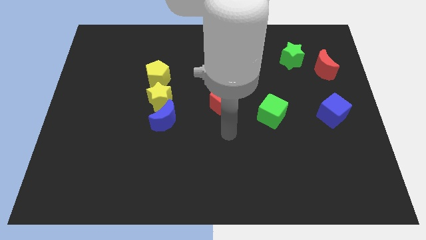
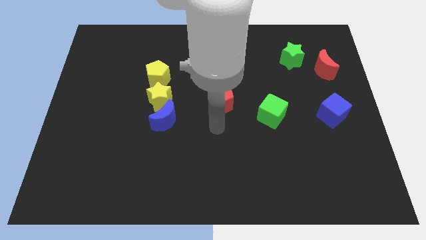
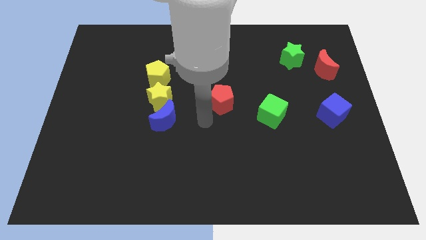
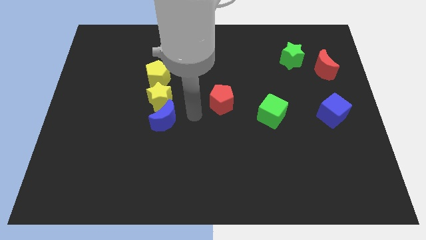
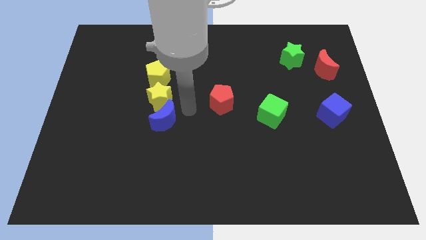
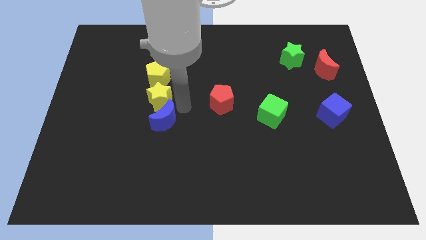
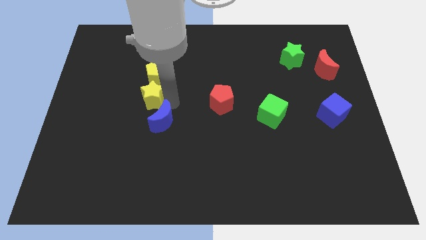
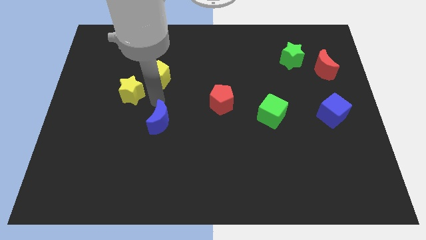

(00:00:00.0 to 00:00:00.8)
pull the blue moon apart from the yellow star

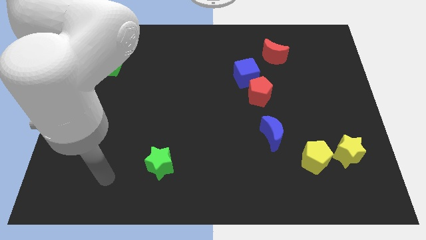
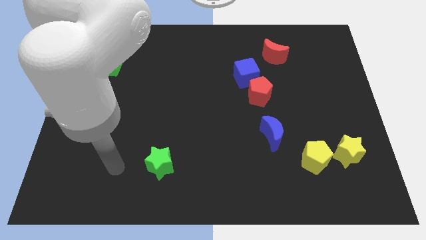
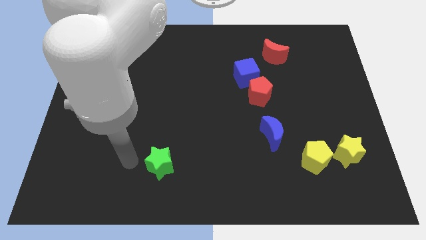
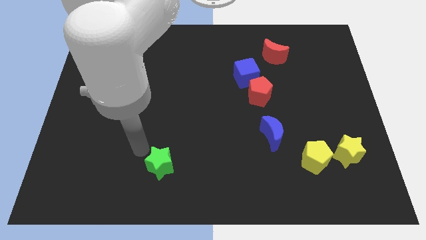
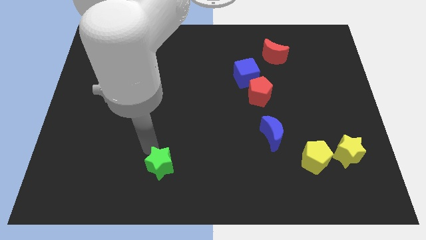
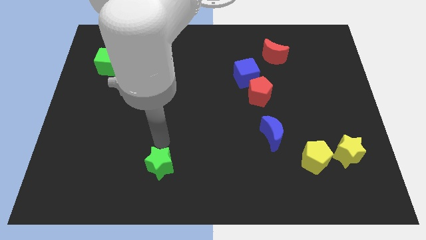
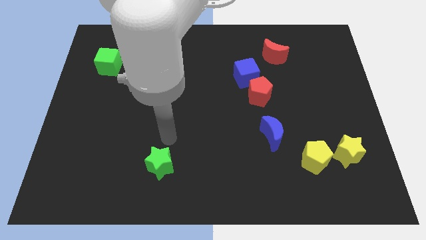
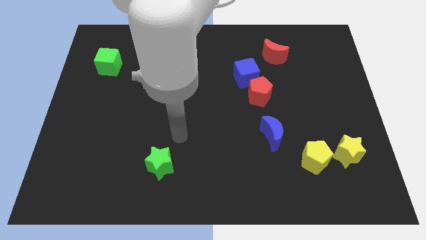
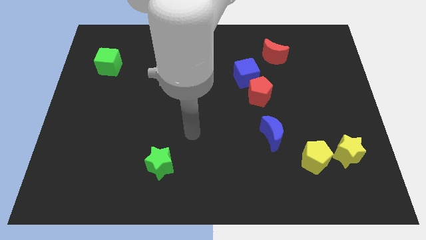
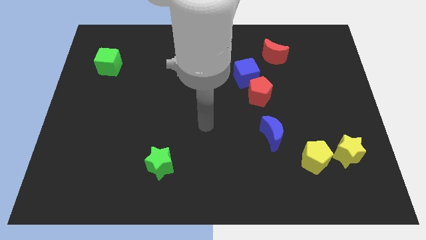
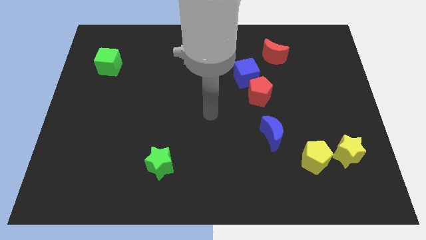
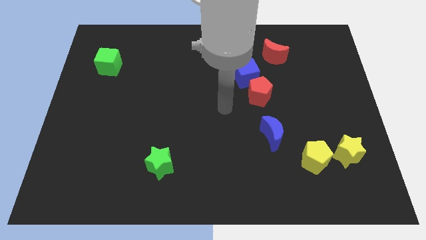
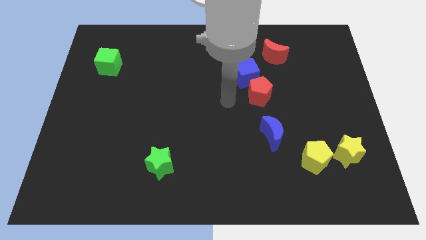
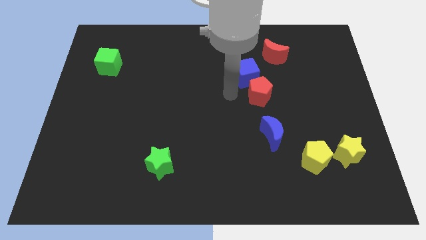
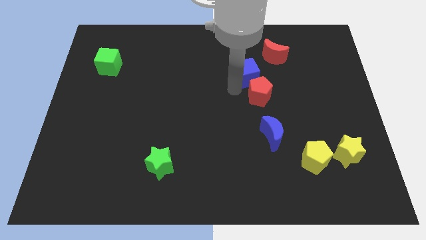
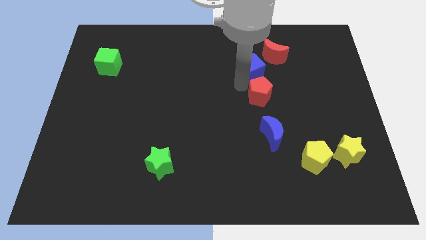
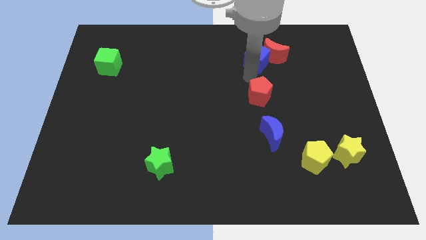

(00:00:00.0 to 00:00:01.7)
separate the red pentagon from the blue cube

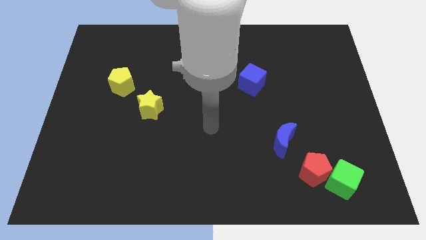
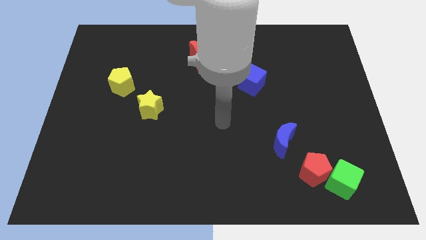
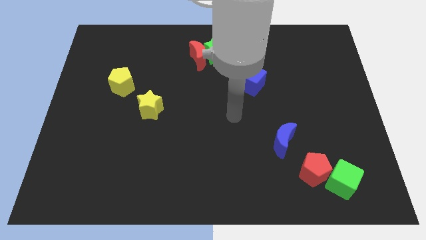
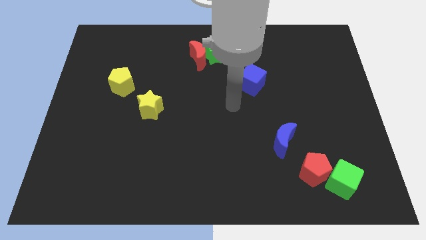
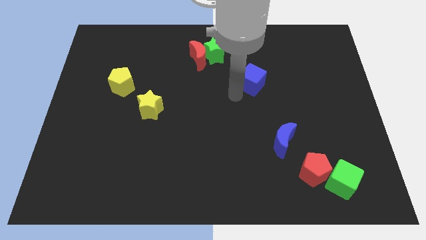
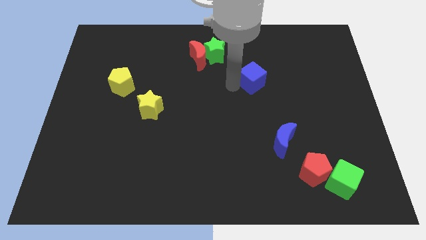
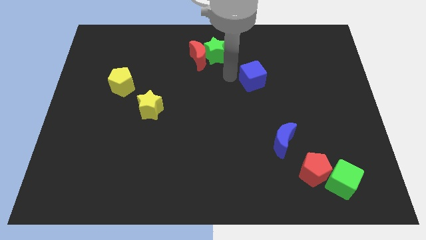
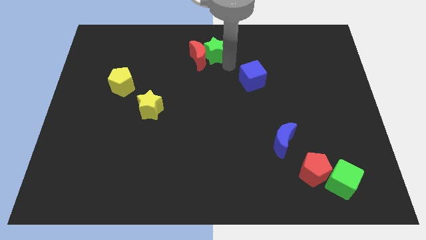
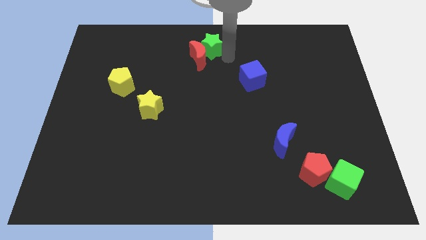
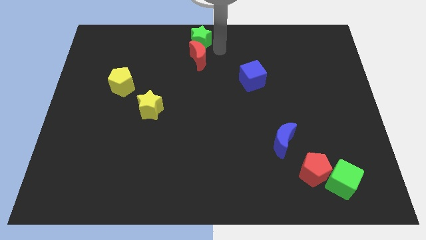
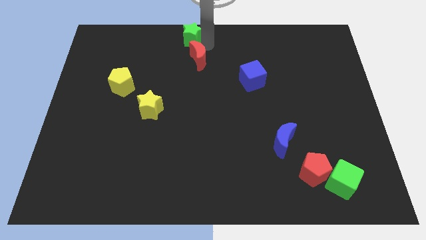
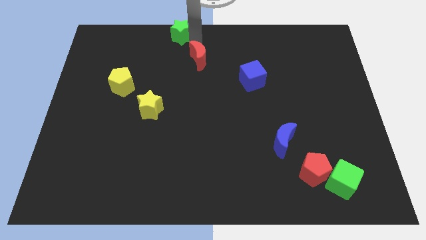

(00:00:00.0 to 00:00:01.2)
separate the red moon from the green star

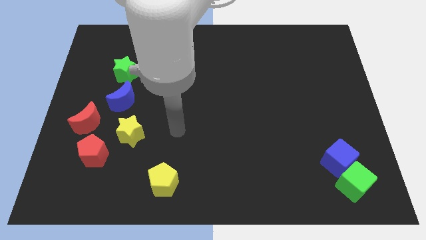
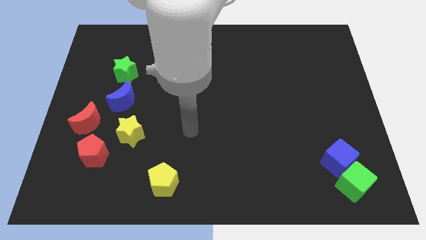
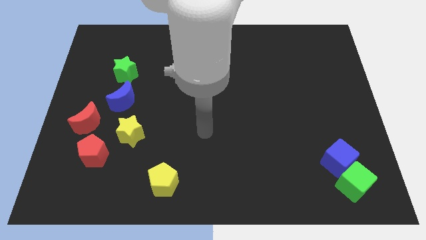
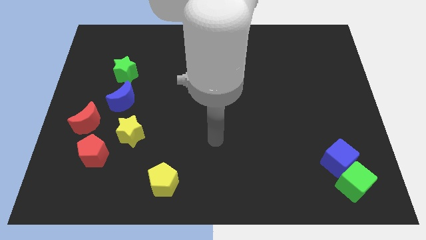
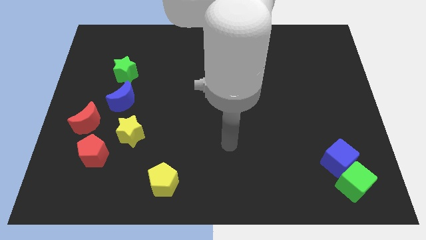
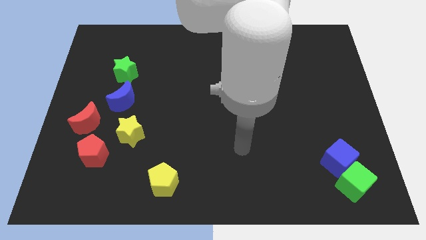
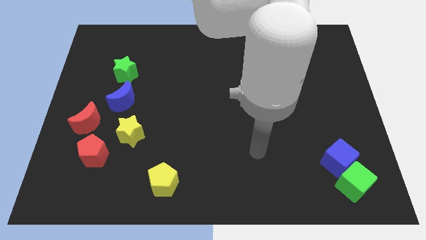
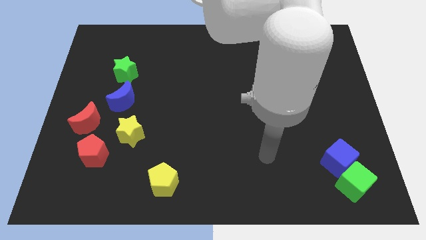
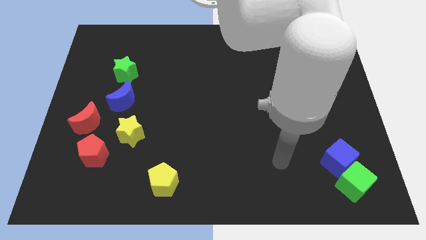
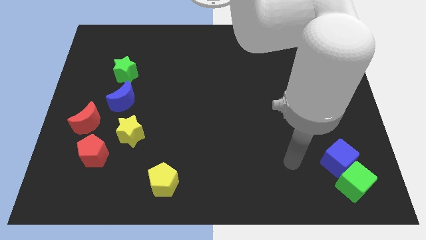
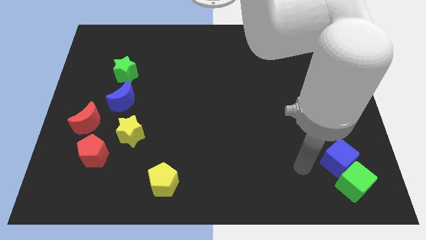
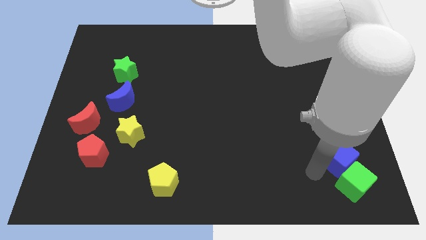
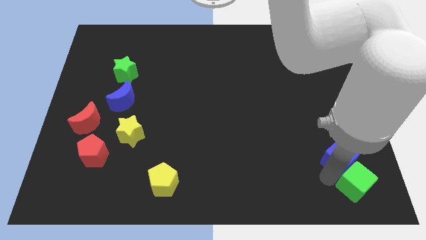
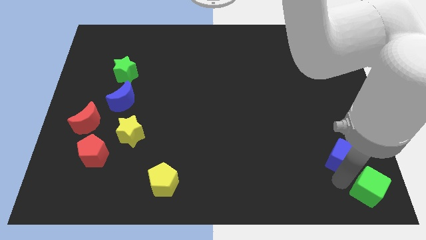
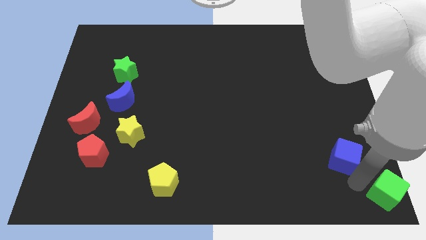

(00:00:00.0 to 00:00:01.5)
move the blue cube away from the green cube

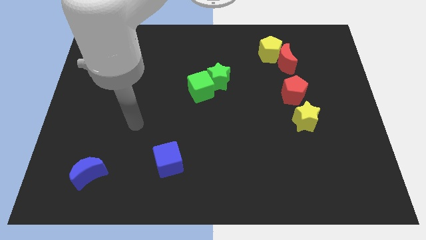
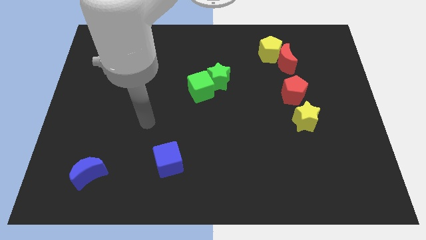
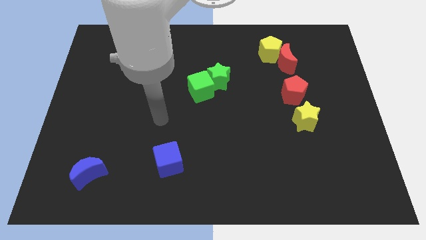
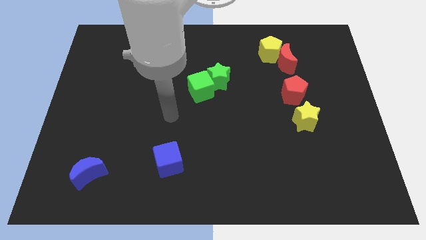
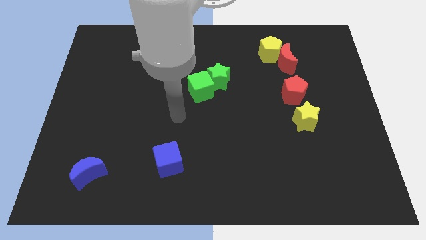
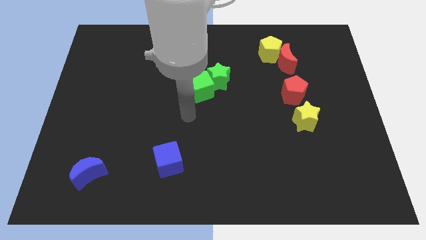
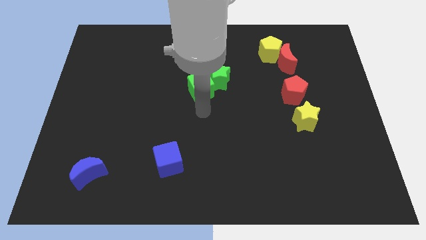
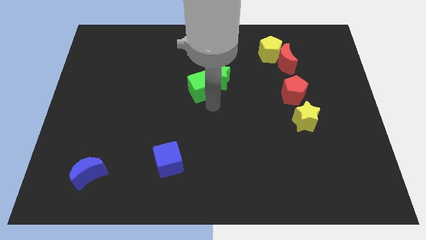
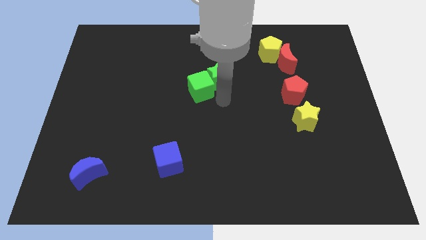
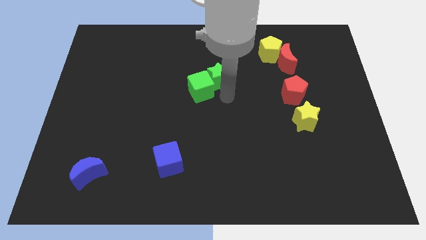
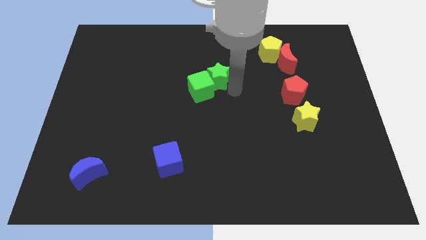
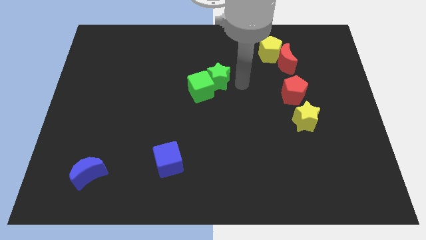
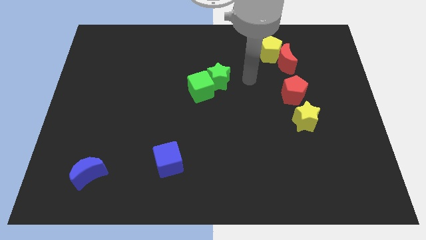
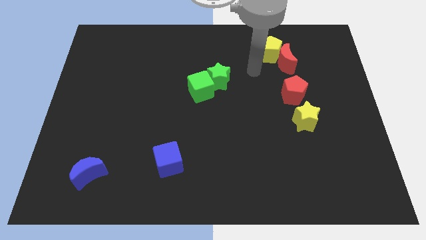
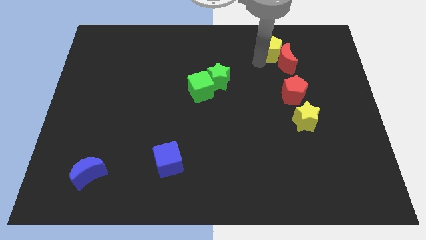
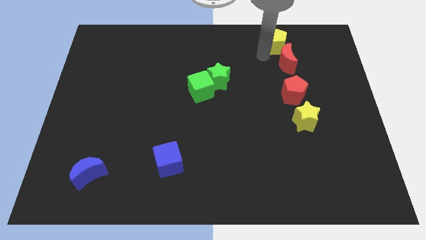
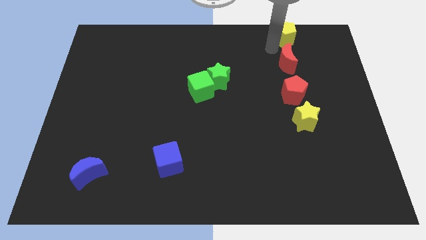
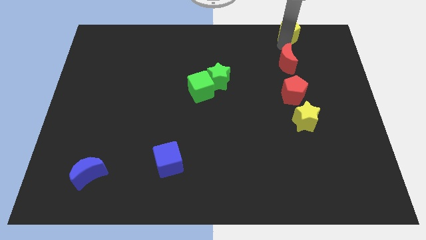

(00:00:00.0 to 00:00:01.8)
move the red moon away from the yellow pentagon

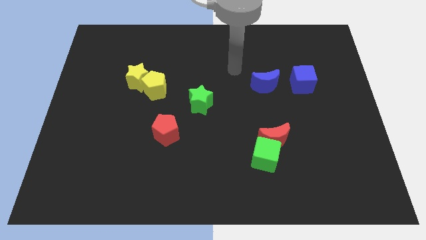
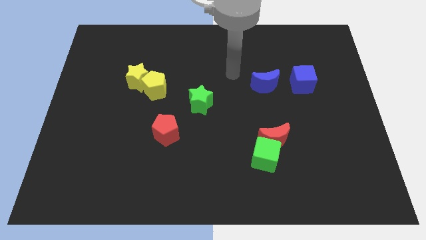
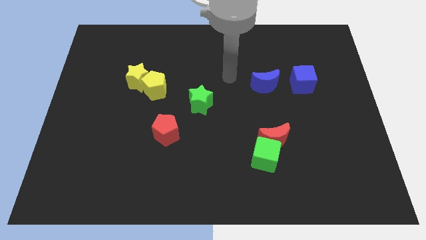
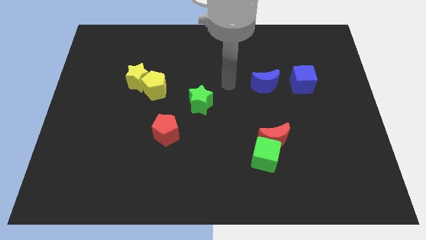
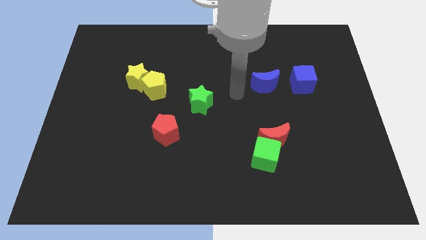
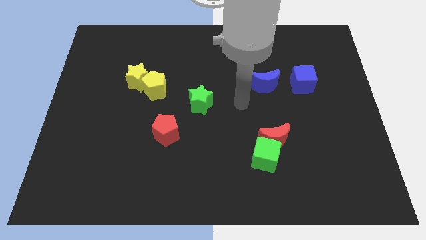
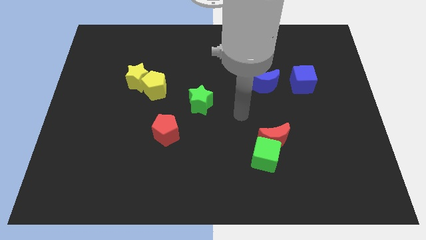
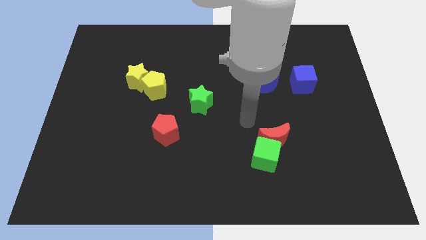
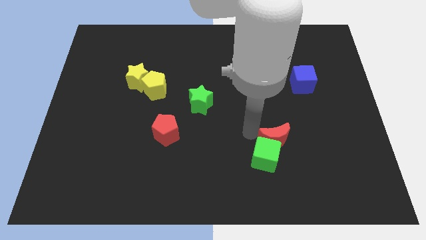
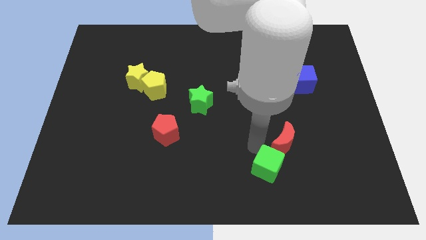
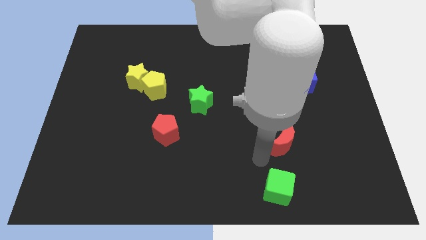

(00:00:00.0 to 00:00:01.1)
pull the red moon apart from the green cube

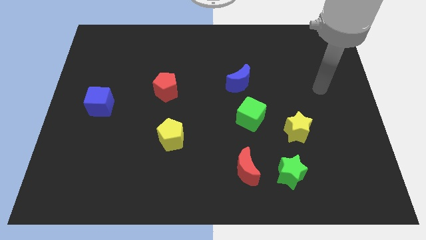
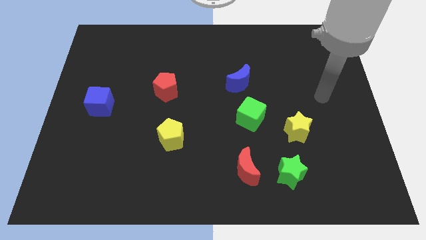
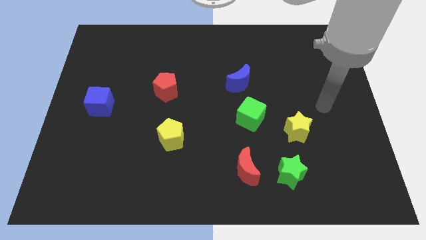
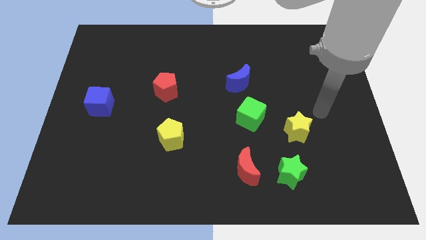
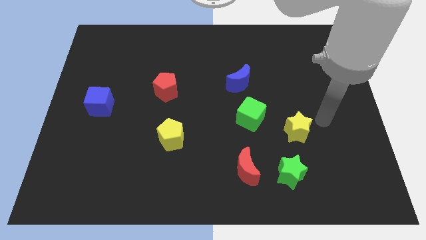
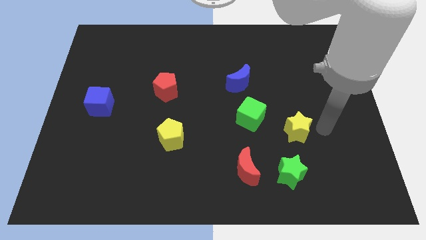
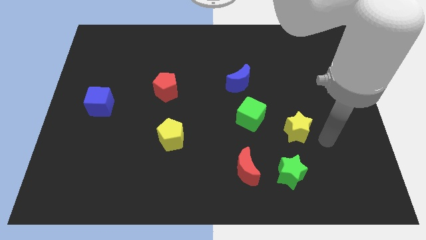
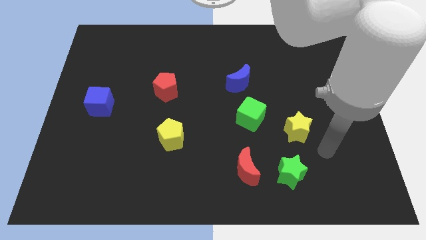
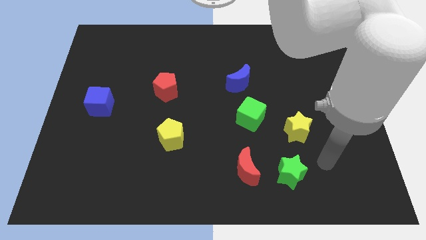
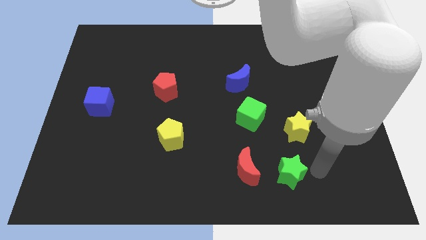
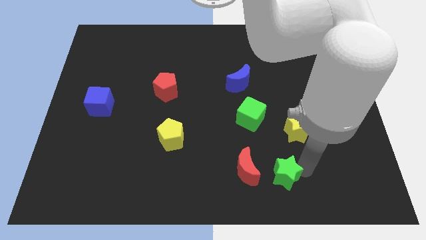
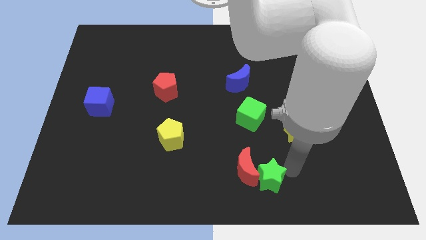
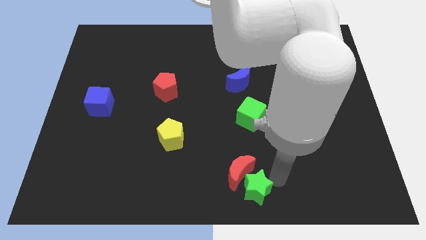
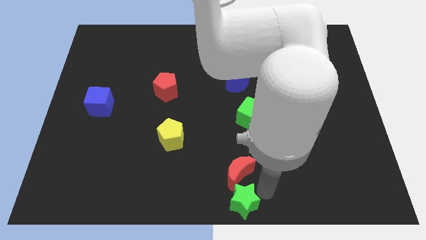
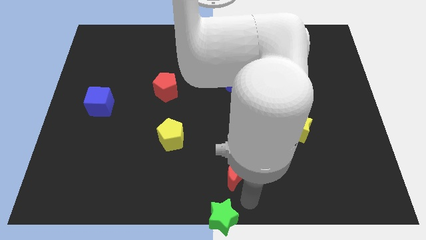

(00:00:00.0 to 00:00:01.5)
move the red moon away from the green star
